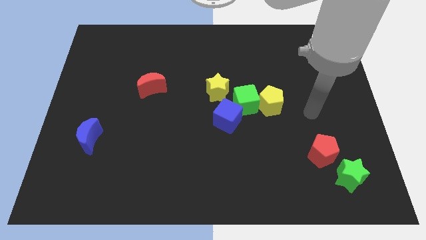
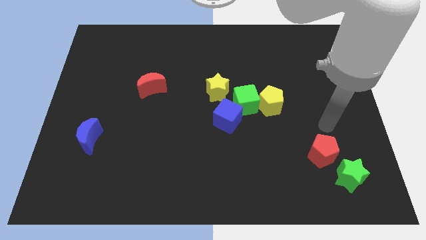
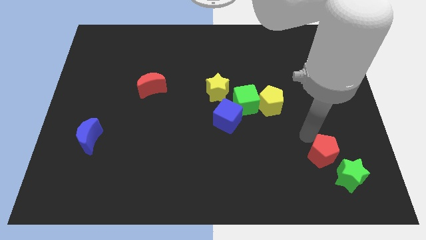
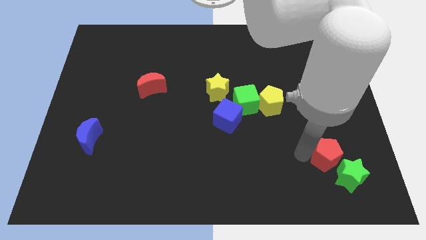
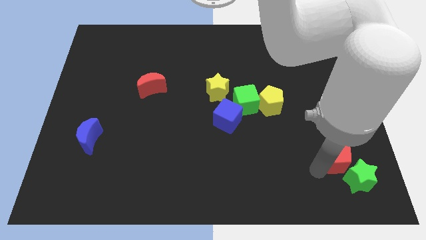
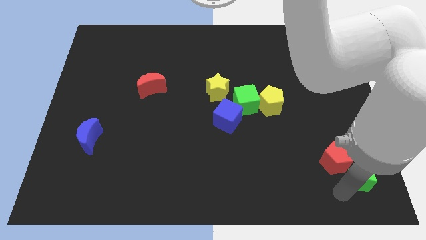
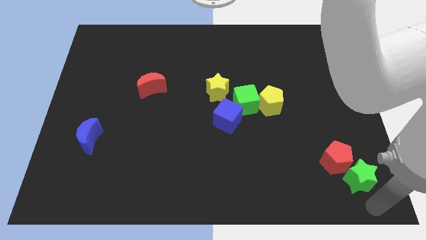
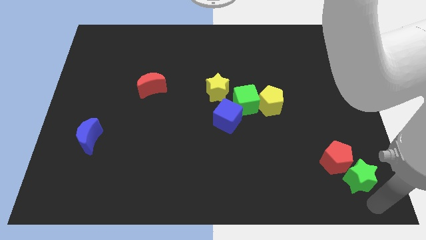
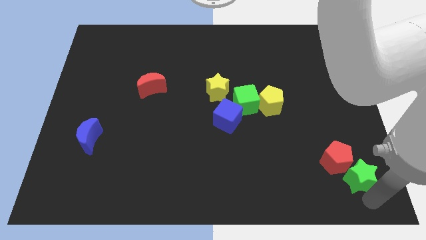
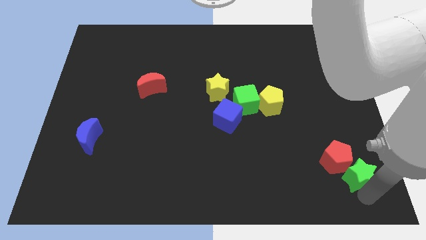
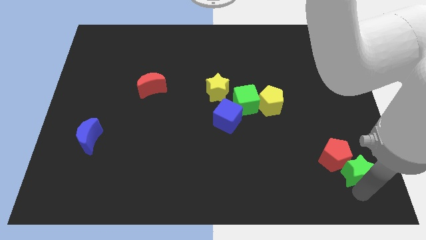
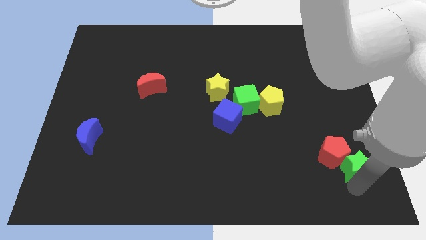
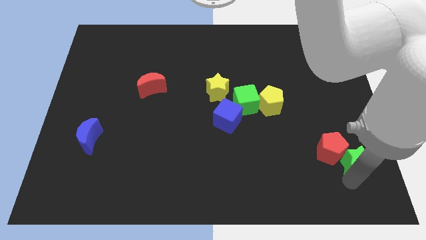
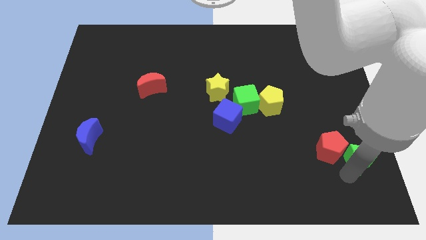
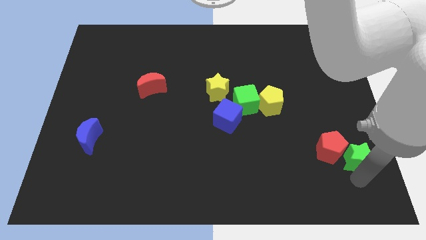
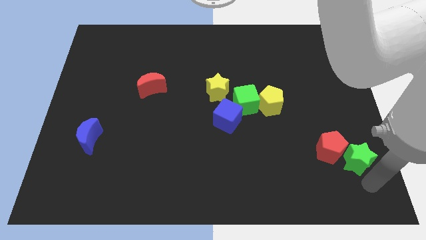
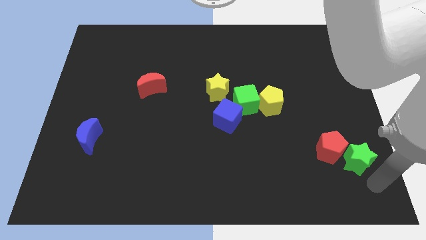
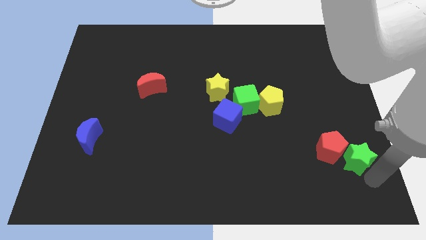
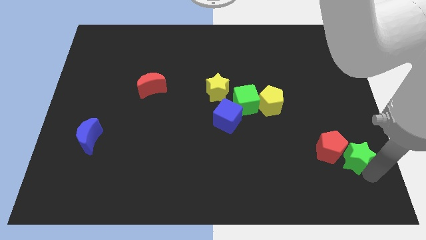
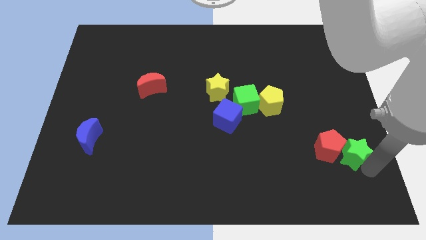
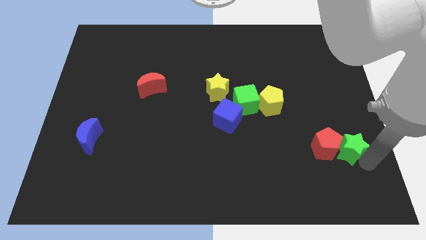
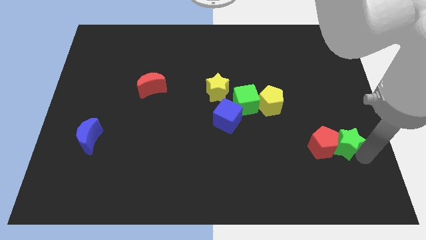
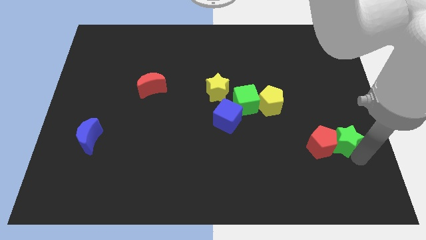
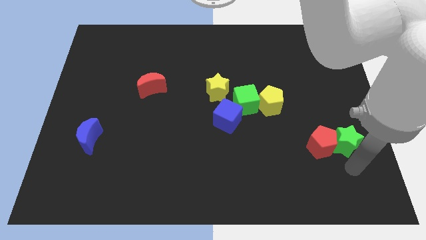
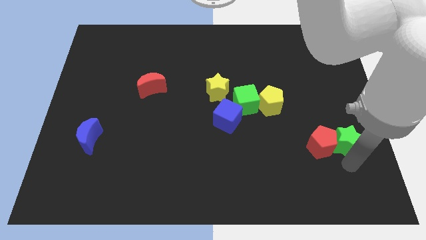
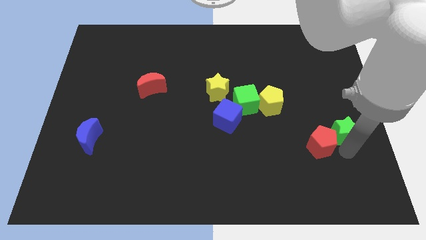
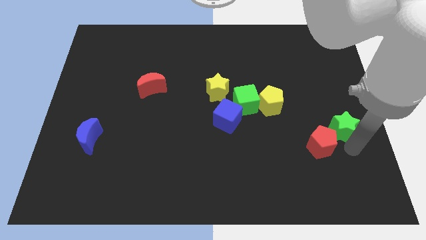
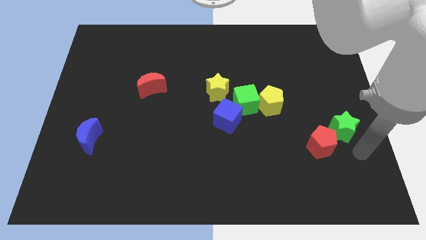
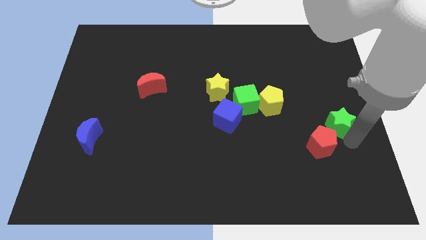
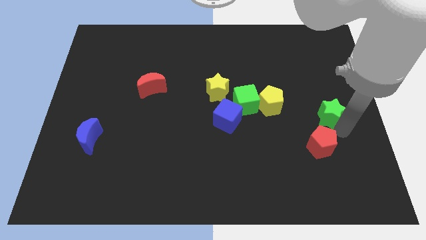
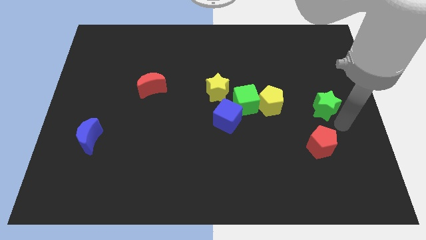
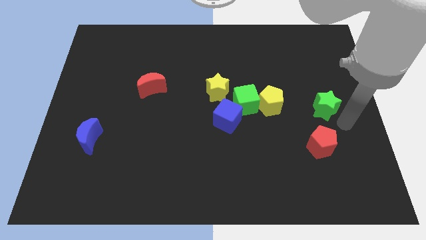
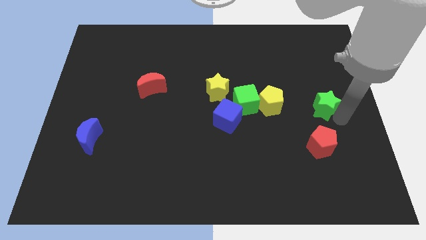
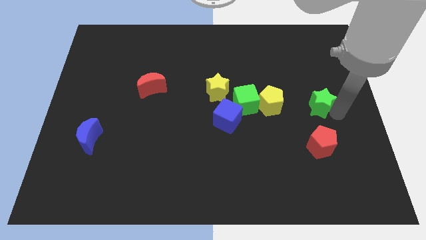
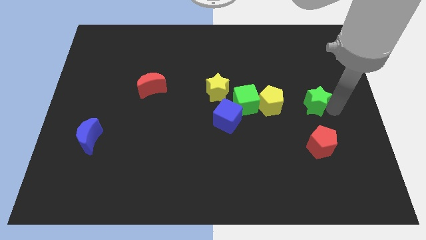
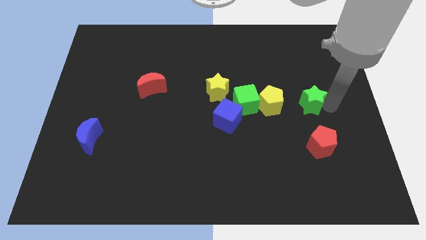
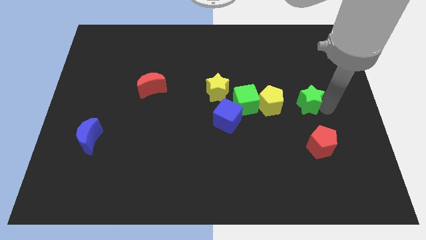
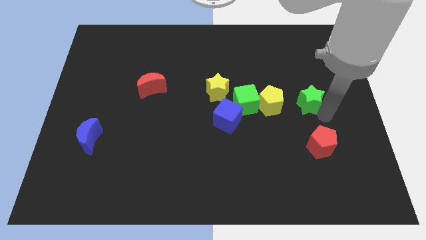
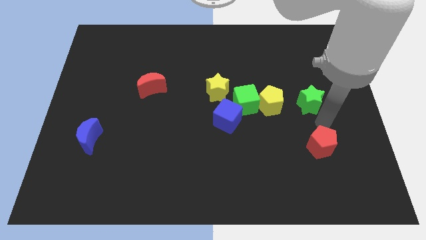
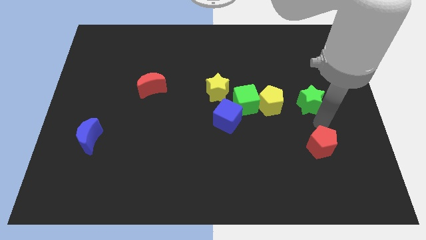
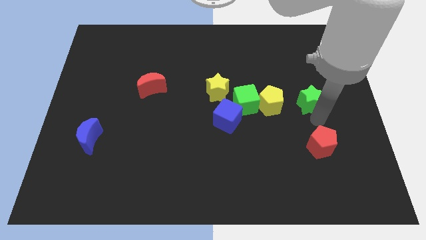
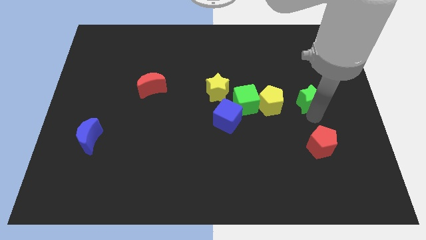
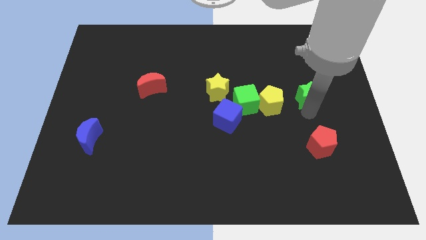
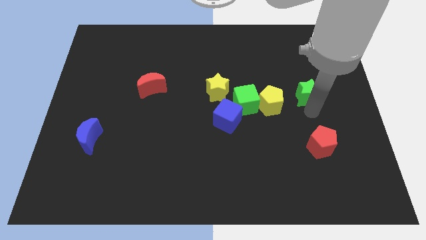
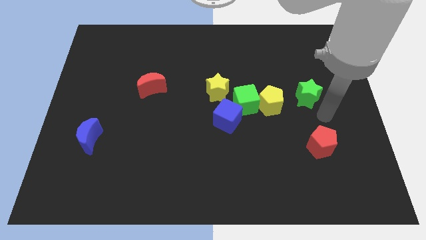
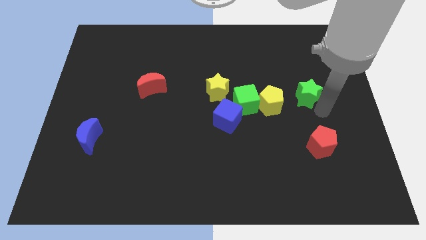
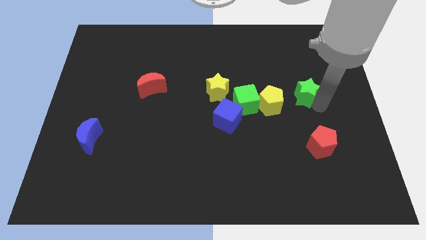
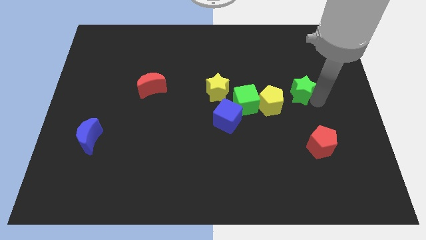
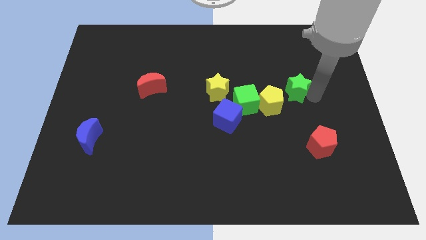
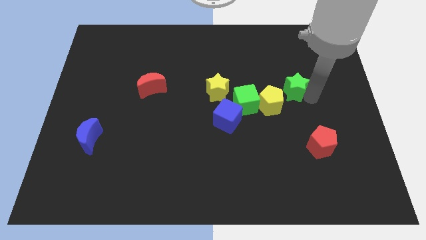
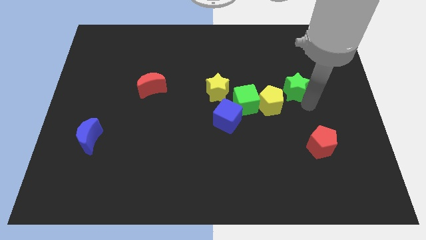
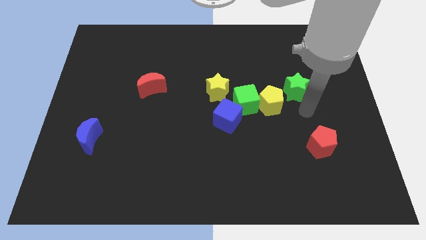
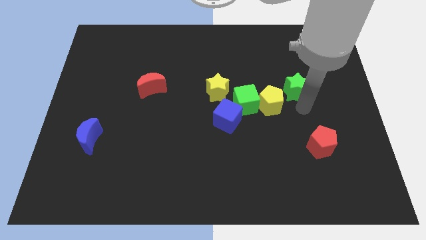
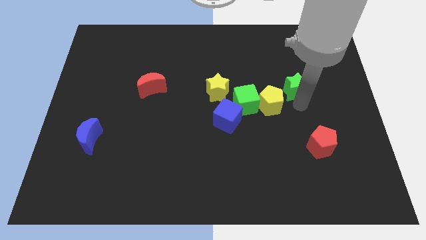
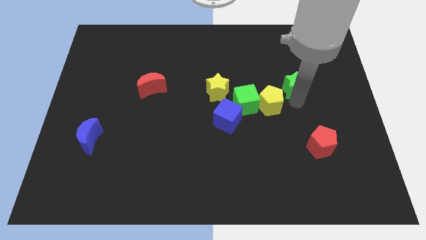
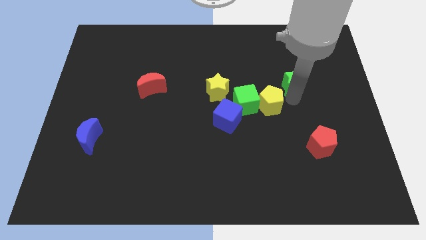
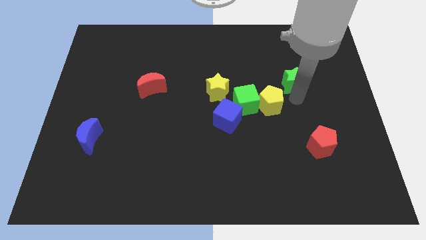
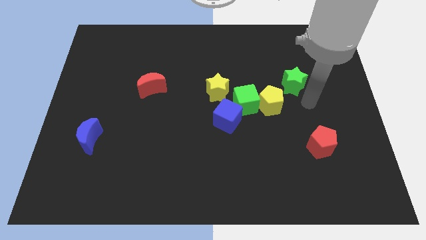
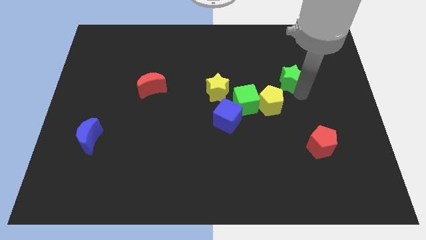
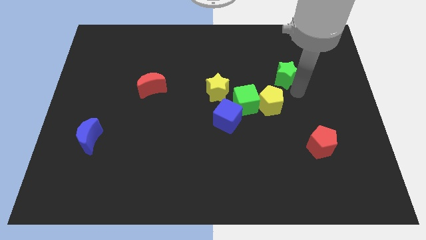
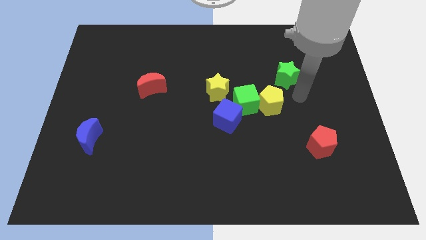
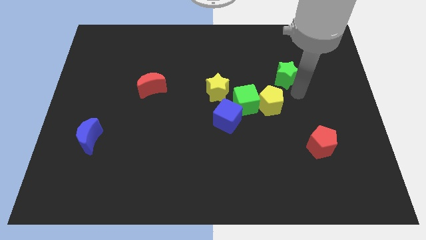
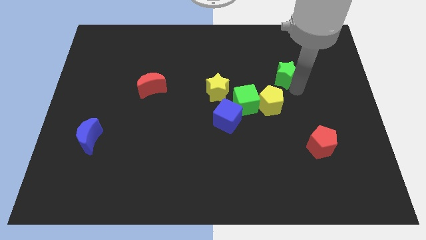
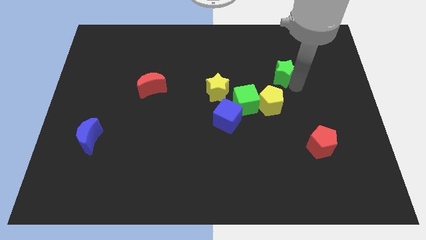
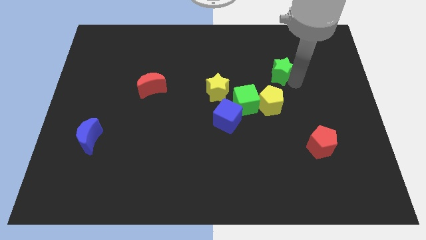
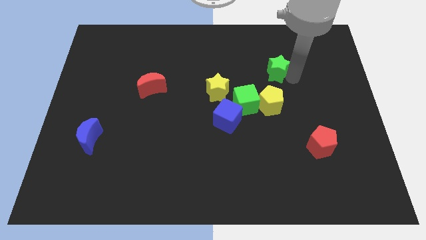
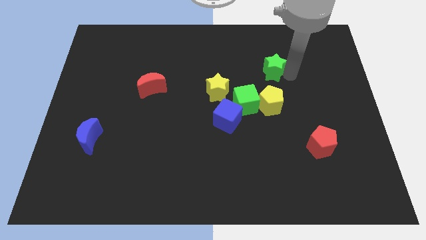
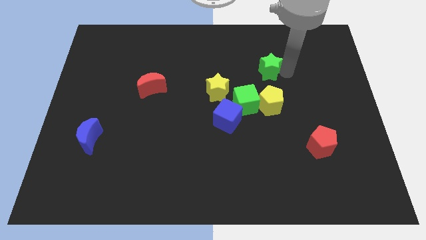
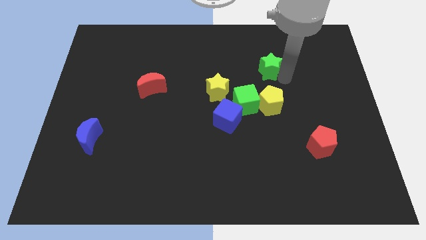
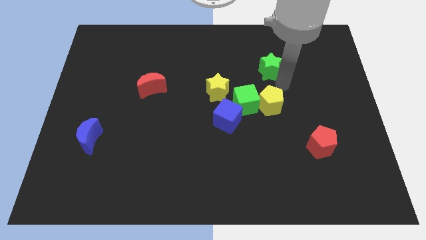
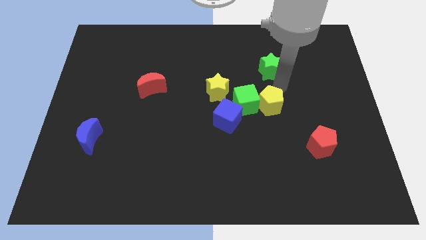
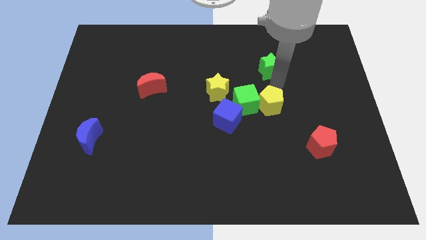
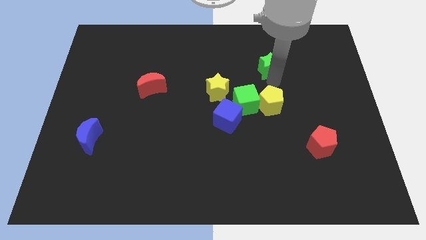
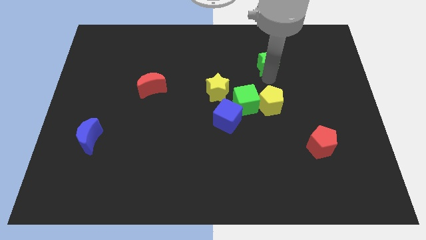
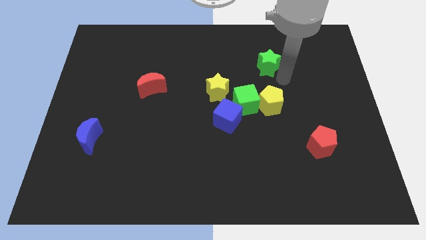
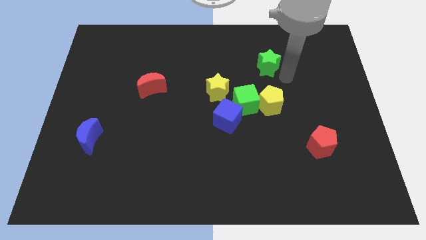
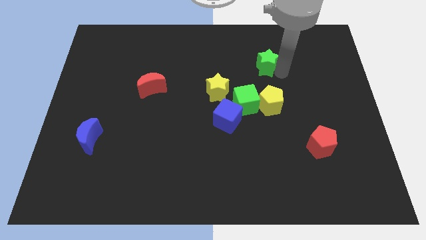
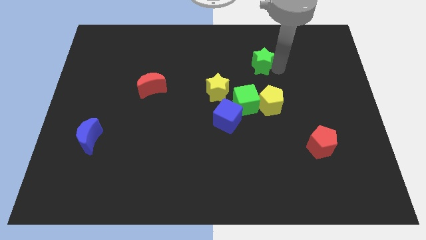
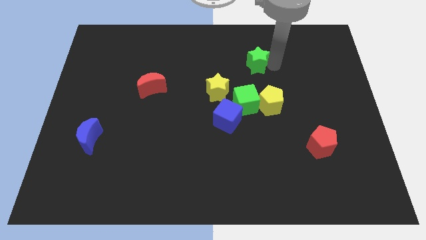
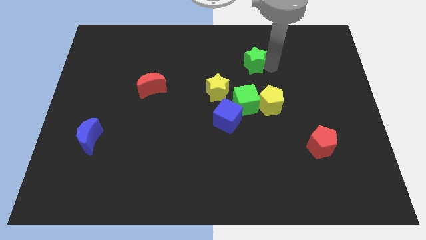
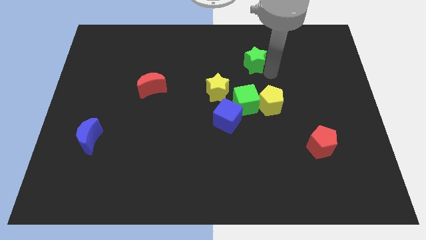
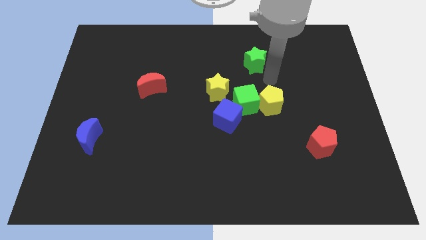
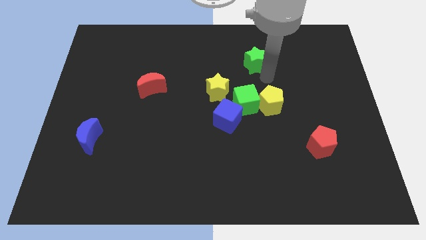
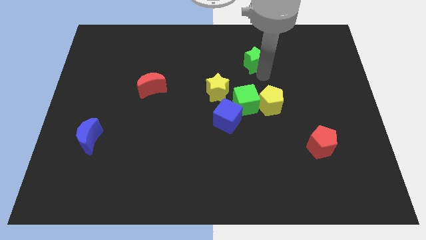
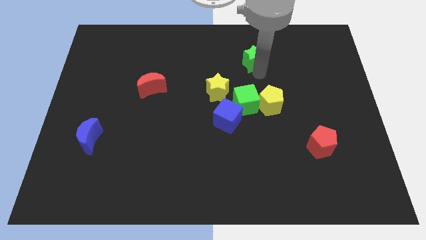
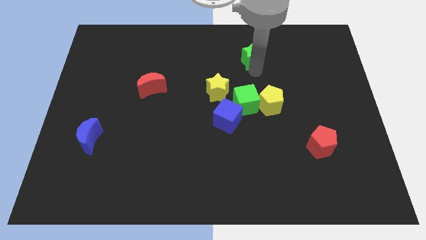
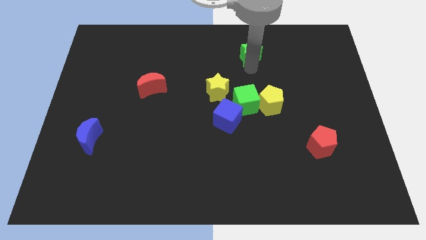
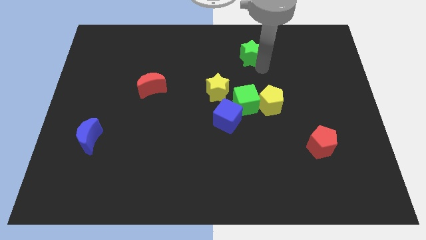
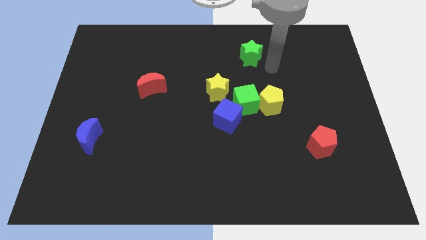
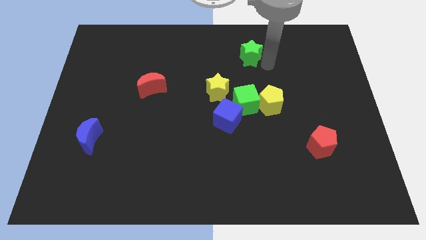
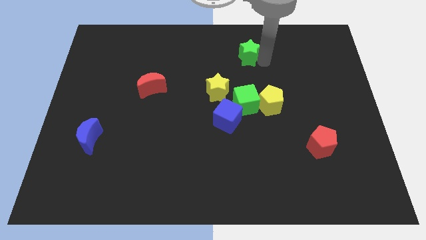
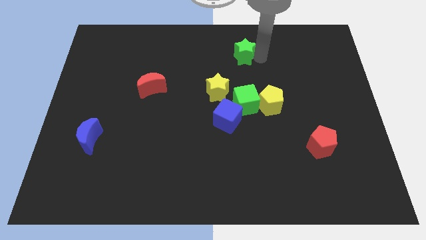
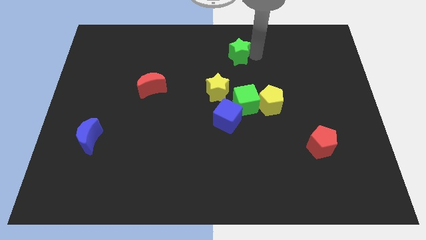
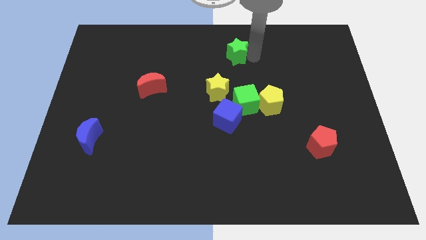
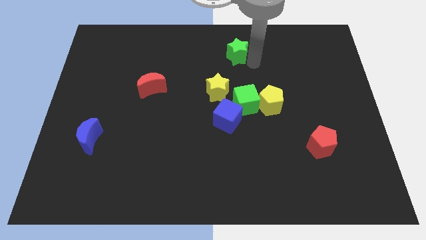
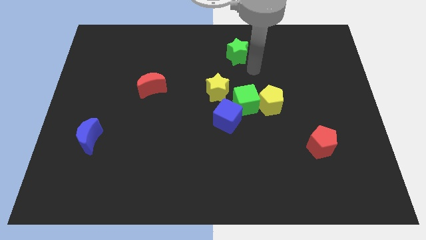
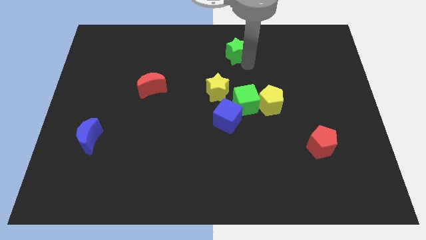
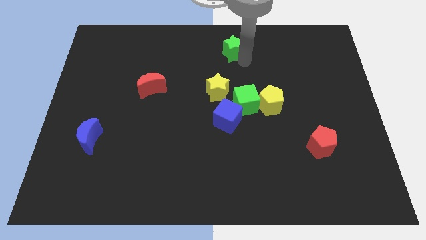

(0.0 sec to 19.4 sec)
push the green star to the top side
